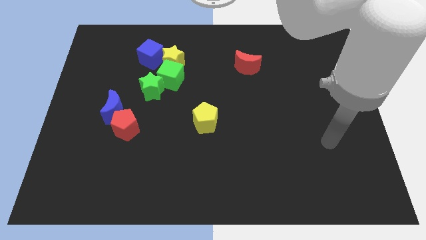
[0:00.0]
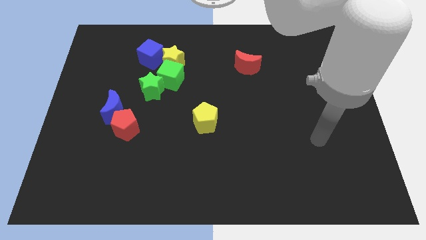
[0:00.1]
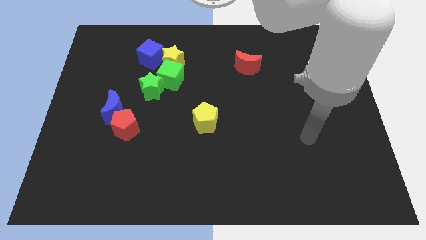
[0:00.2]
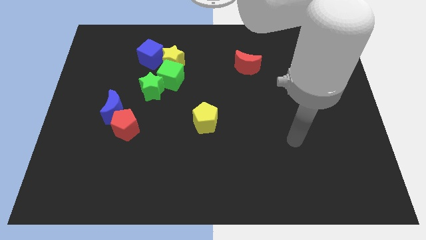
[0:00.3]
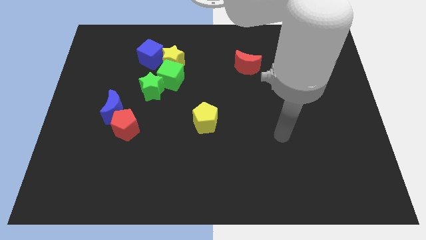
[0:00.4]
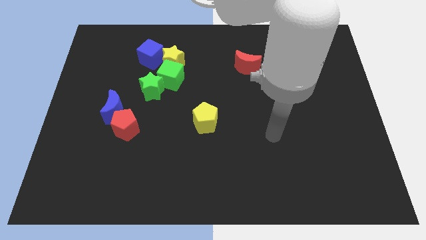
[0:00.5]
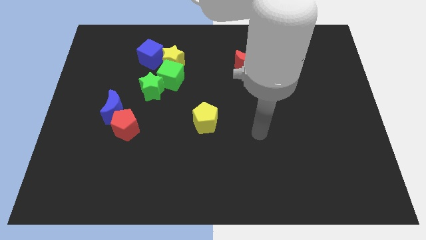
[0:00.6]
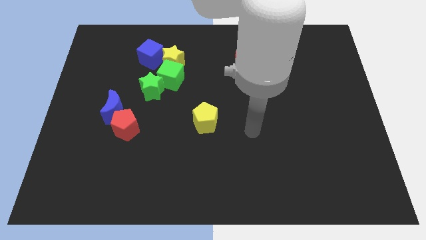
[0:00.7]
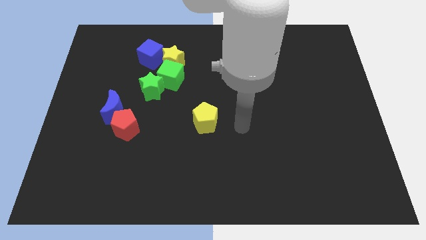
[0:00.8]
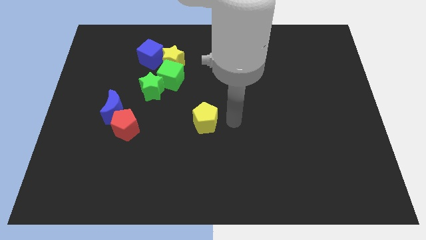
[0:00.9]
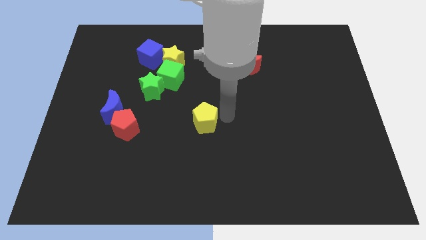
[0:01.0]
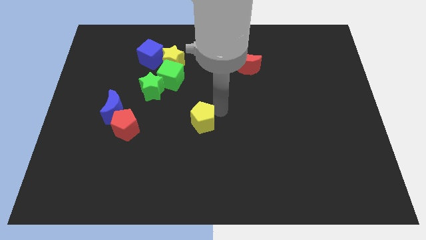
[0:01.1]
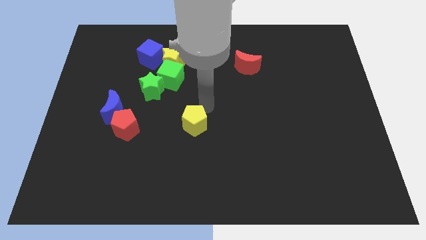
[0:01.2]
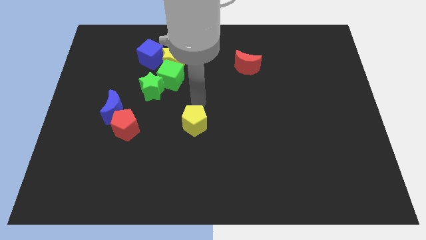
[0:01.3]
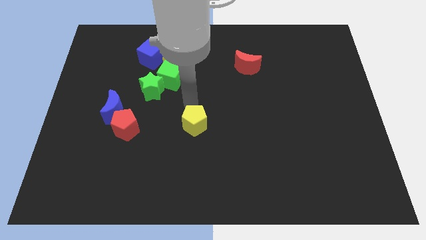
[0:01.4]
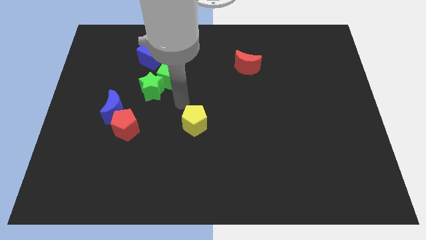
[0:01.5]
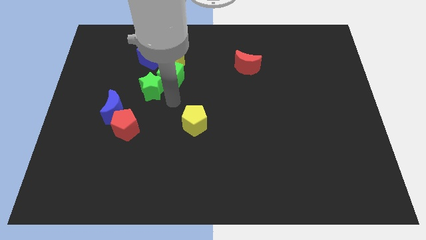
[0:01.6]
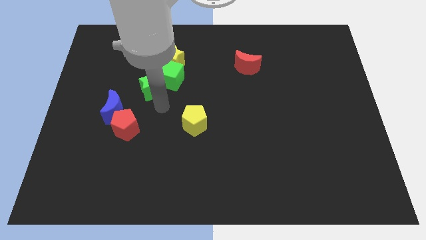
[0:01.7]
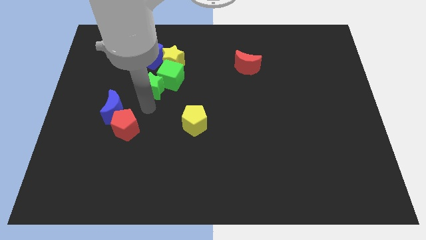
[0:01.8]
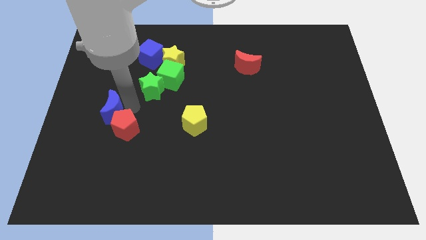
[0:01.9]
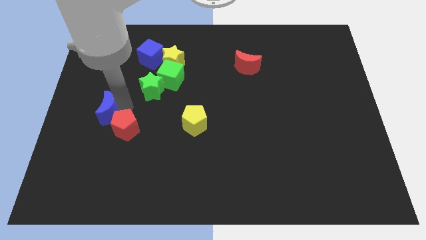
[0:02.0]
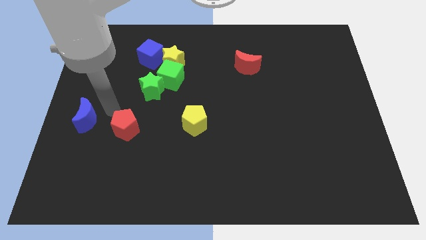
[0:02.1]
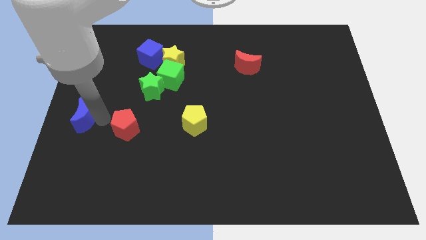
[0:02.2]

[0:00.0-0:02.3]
pull the red pentagon apart from the blue moon

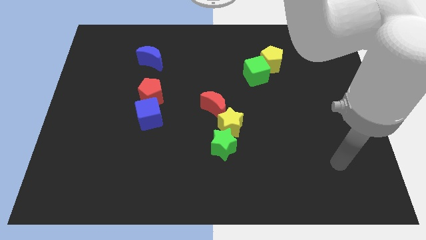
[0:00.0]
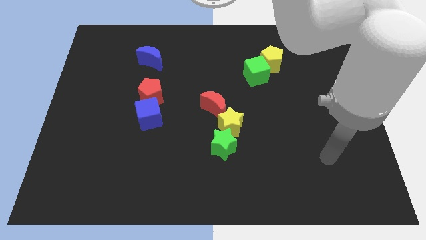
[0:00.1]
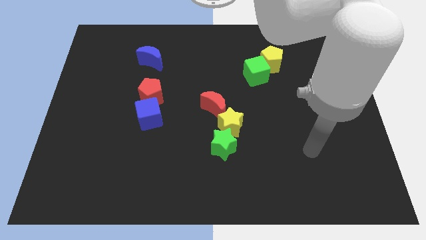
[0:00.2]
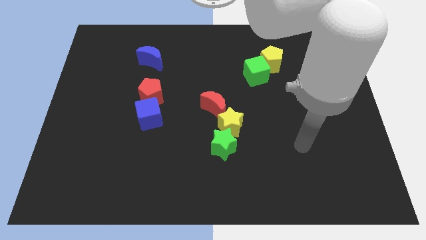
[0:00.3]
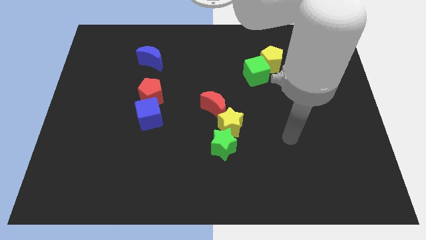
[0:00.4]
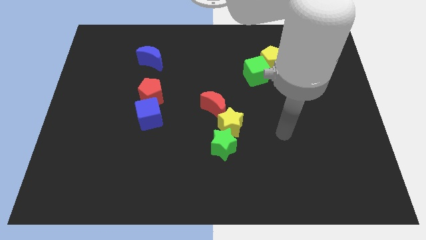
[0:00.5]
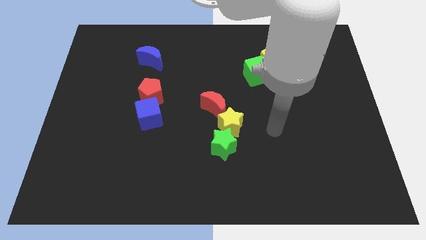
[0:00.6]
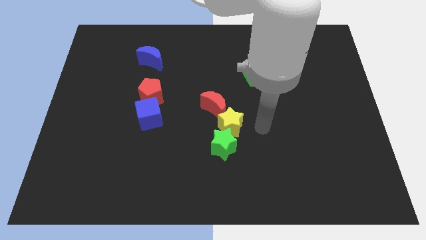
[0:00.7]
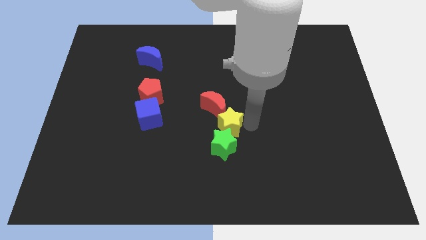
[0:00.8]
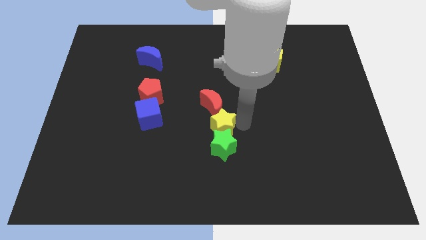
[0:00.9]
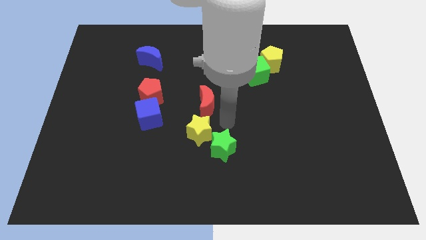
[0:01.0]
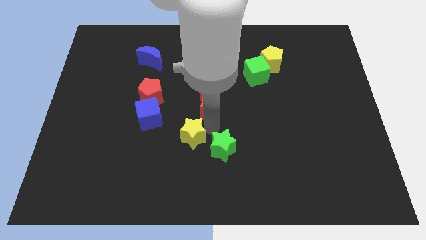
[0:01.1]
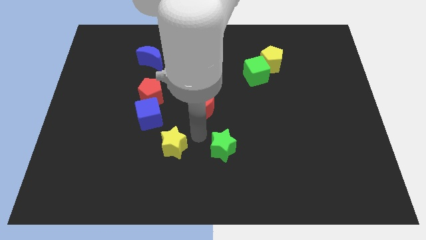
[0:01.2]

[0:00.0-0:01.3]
move the green star away from the yellow star

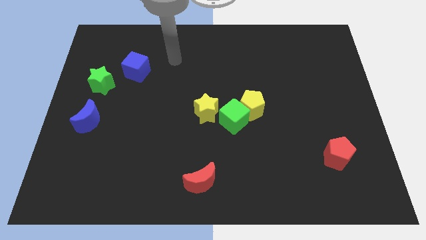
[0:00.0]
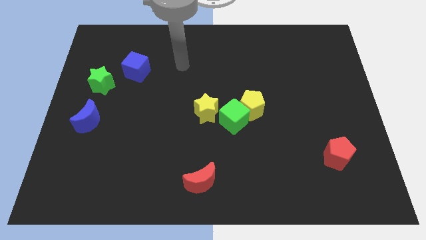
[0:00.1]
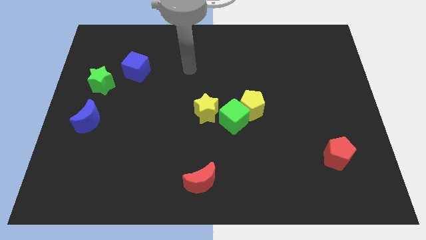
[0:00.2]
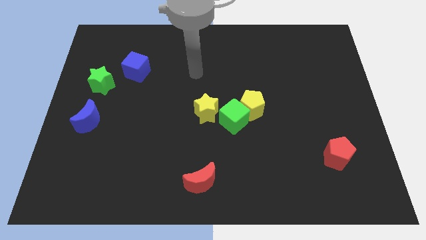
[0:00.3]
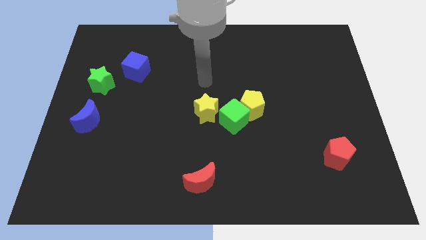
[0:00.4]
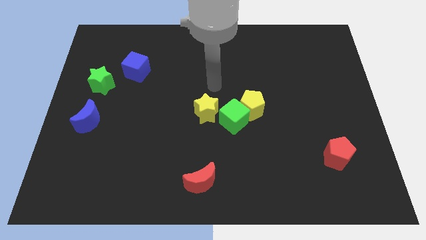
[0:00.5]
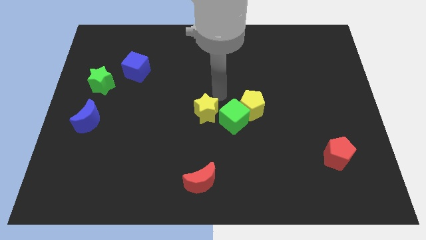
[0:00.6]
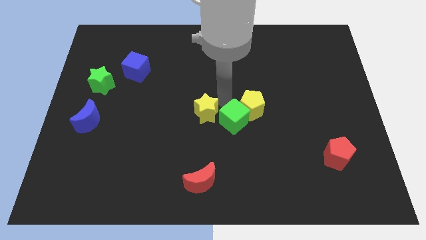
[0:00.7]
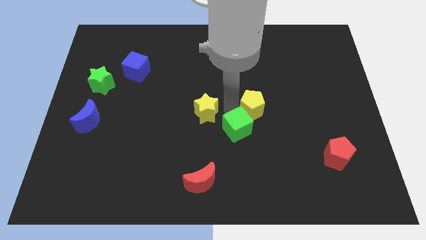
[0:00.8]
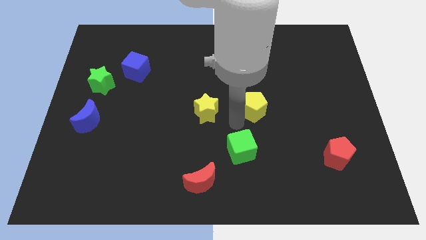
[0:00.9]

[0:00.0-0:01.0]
pull the yellow pentagon apart from the green cube

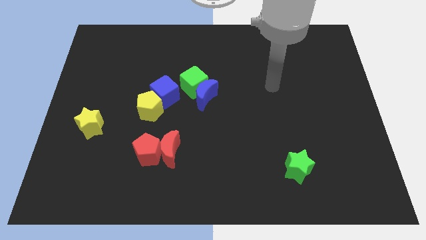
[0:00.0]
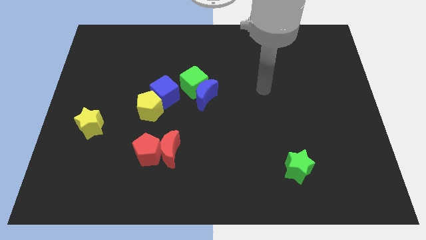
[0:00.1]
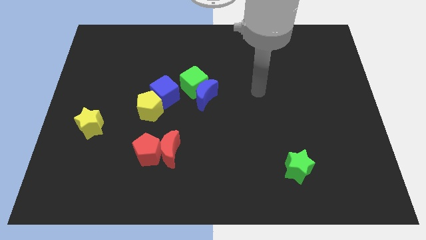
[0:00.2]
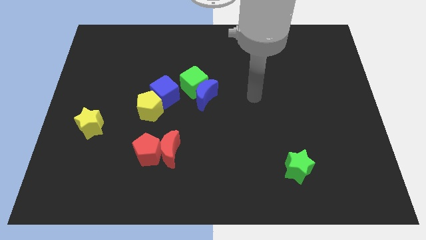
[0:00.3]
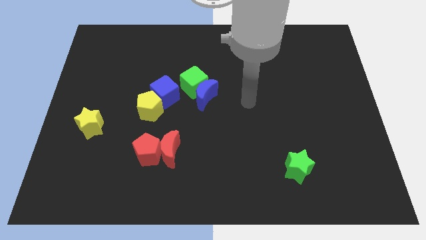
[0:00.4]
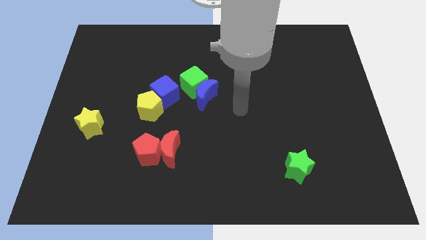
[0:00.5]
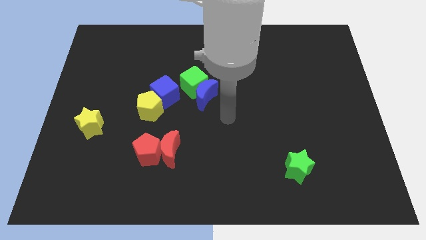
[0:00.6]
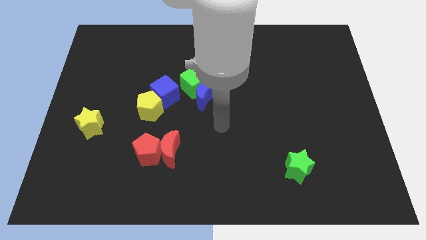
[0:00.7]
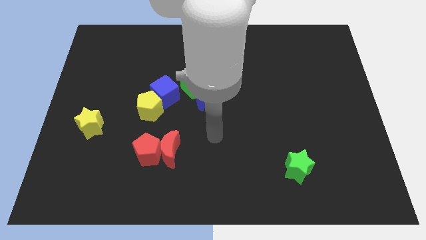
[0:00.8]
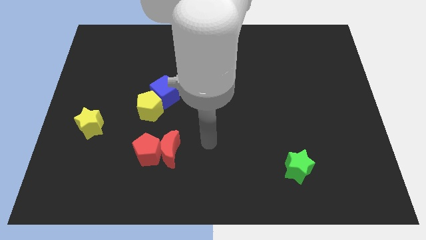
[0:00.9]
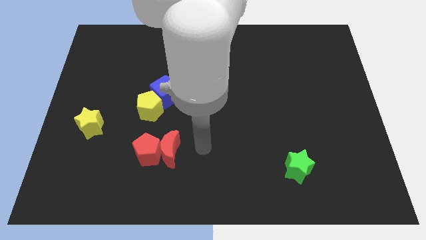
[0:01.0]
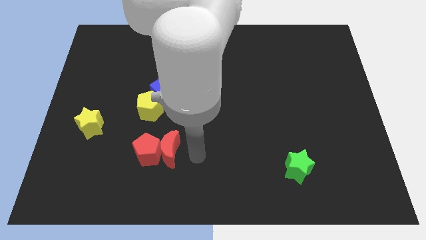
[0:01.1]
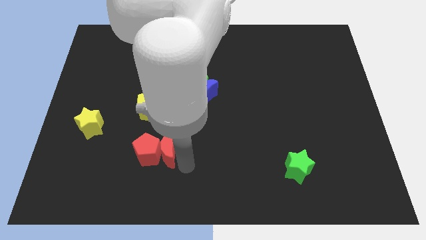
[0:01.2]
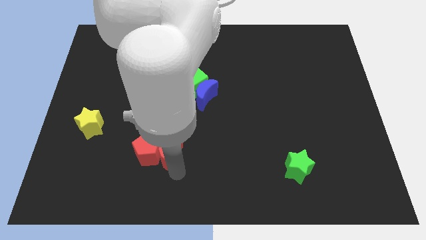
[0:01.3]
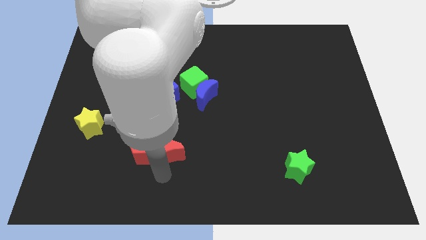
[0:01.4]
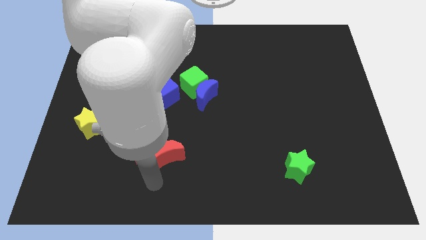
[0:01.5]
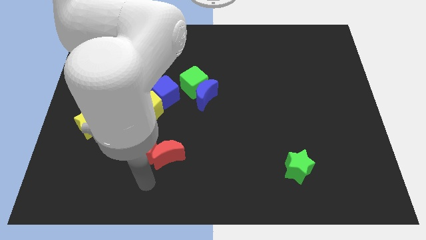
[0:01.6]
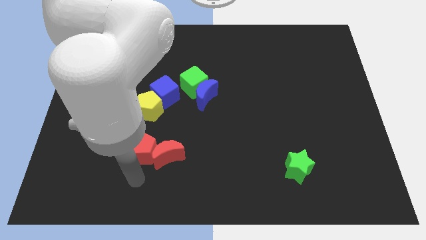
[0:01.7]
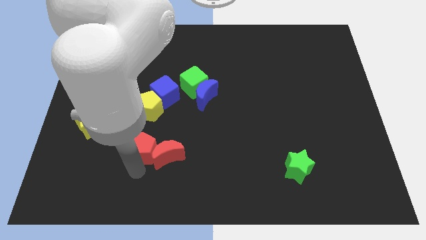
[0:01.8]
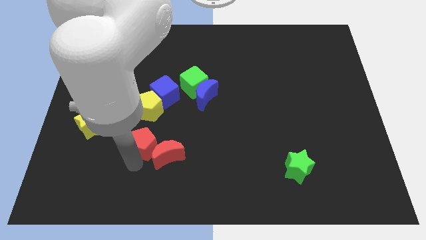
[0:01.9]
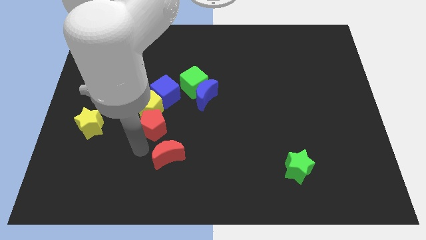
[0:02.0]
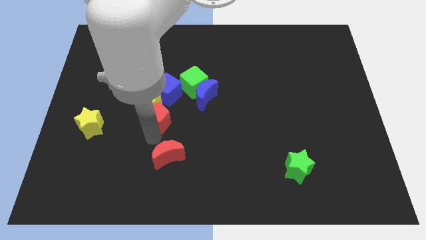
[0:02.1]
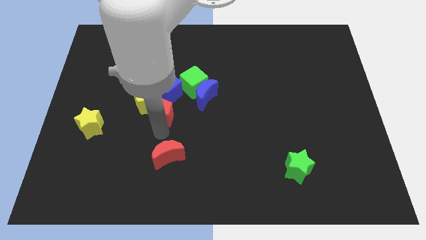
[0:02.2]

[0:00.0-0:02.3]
separate the red moon from the red pentagon

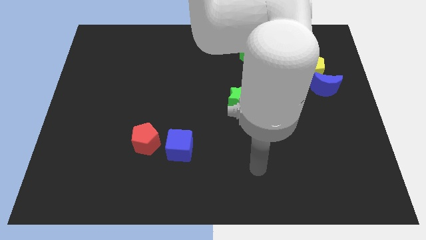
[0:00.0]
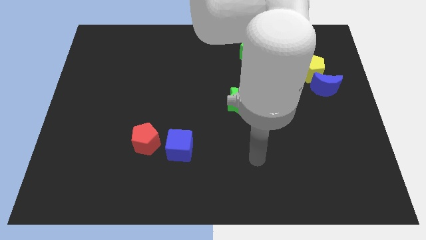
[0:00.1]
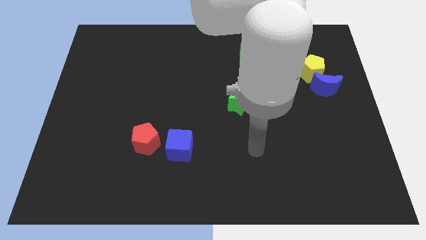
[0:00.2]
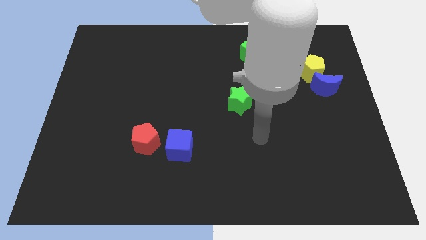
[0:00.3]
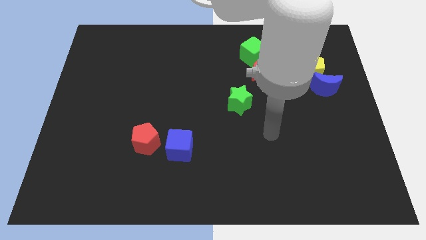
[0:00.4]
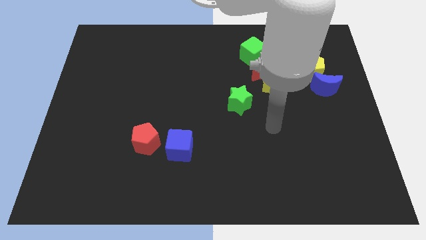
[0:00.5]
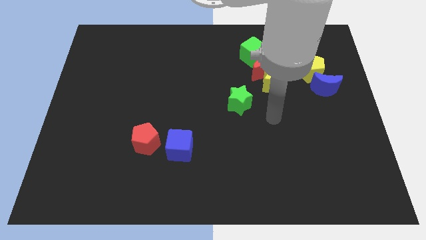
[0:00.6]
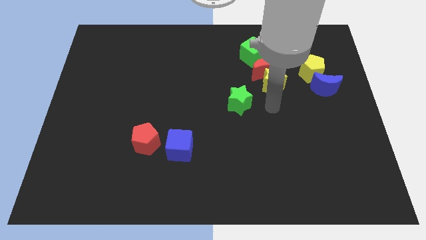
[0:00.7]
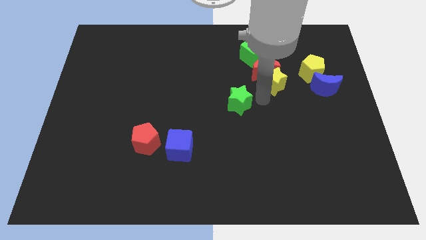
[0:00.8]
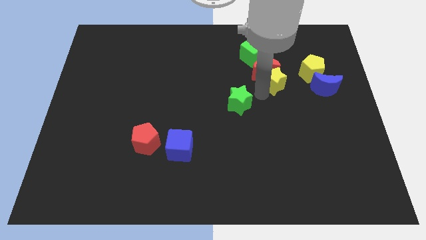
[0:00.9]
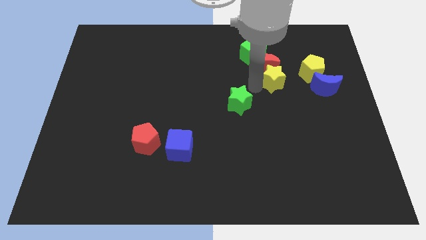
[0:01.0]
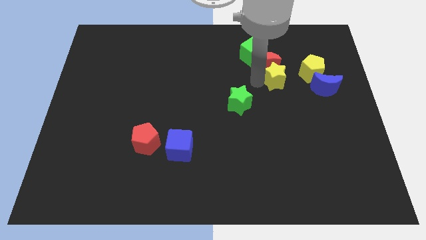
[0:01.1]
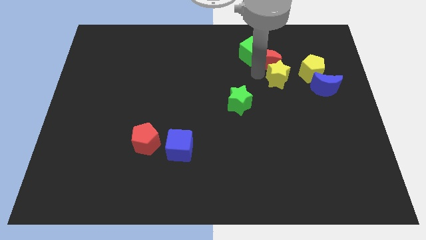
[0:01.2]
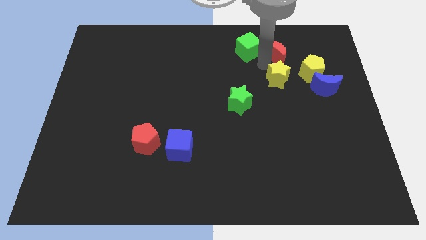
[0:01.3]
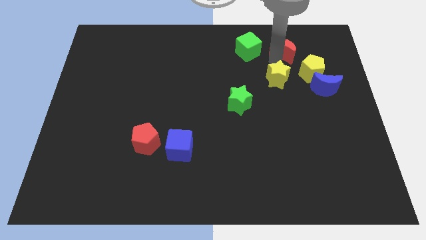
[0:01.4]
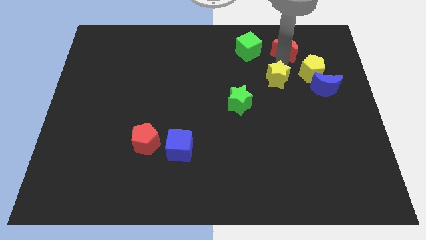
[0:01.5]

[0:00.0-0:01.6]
move the yellow star away from the red moon

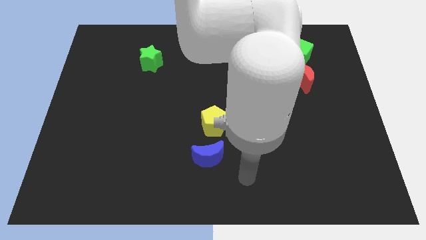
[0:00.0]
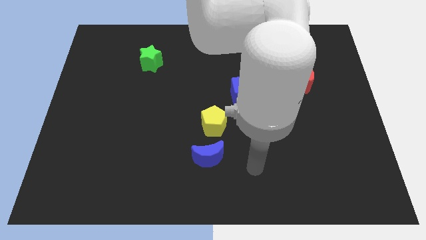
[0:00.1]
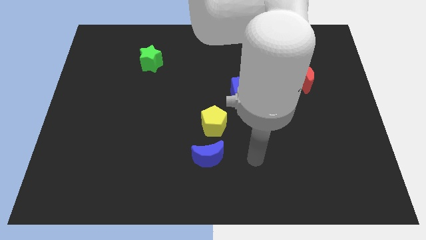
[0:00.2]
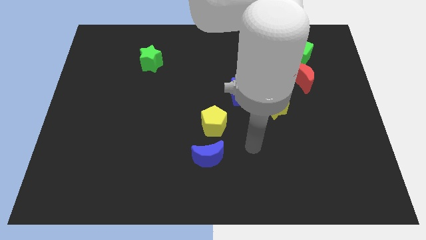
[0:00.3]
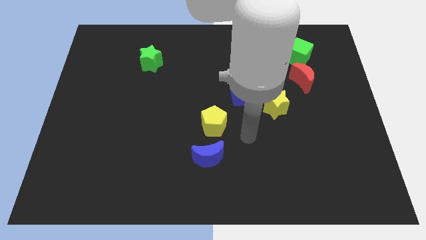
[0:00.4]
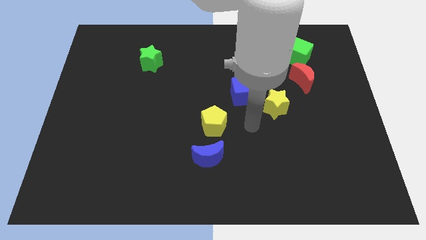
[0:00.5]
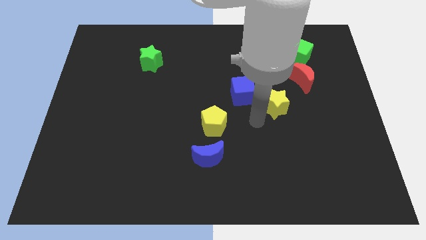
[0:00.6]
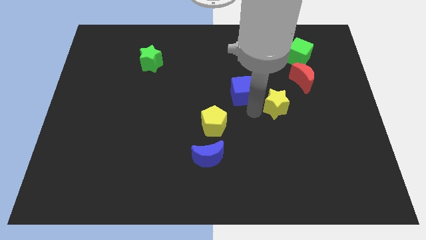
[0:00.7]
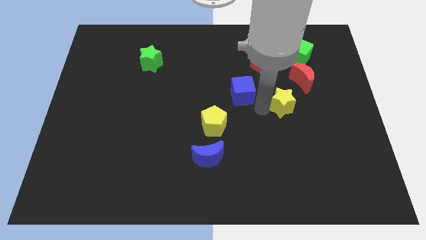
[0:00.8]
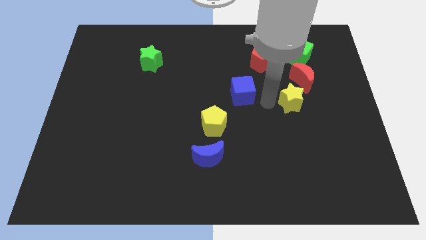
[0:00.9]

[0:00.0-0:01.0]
move the blue cube away from the yellow star
